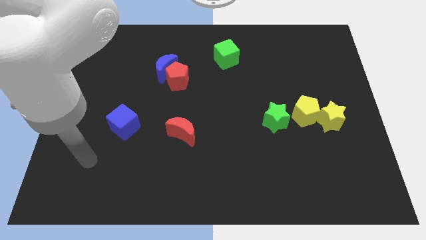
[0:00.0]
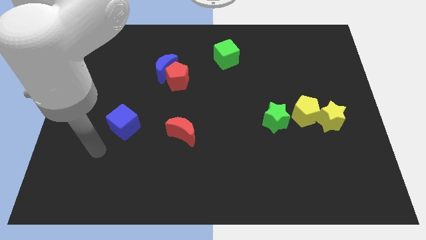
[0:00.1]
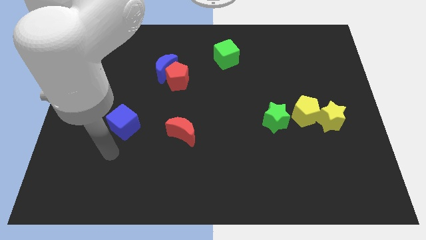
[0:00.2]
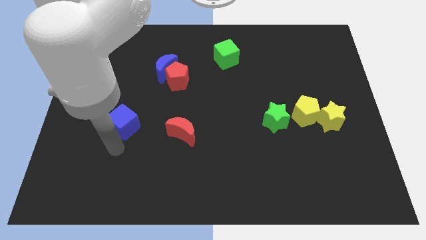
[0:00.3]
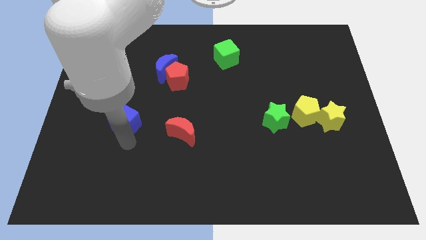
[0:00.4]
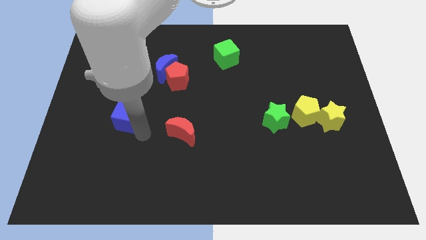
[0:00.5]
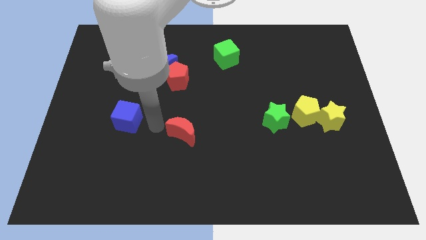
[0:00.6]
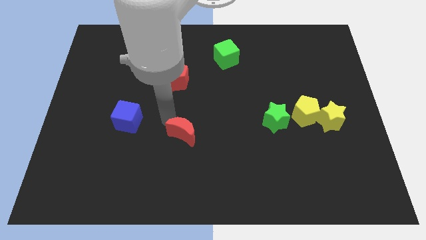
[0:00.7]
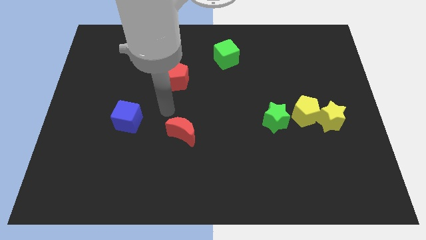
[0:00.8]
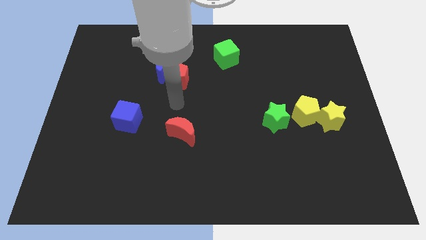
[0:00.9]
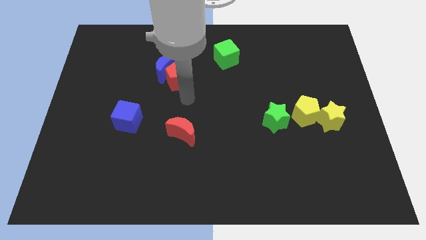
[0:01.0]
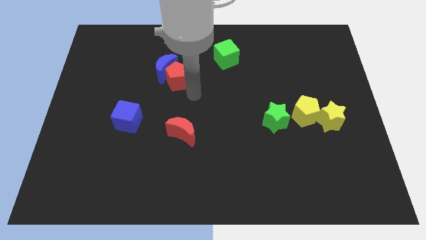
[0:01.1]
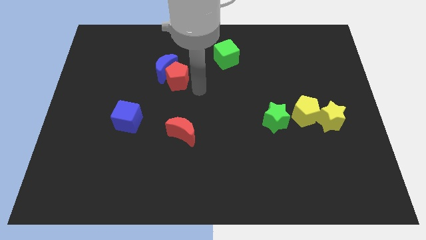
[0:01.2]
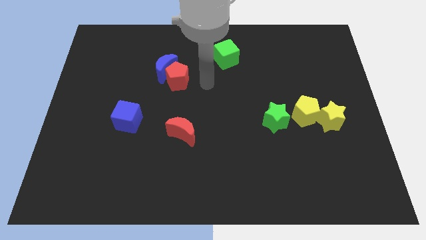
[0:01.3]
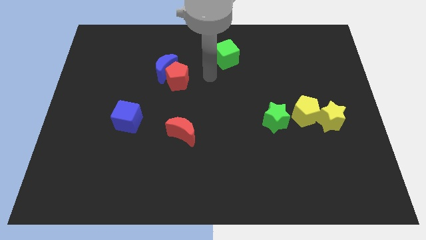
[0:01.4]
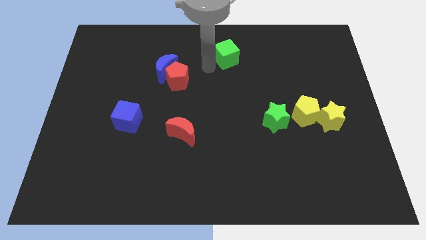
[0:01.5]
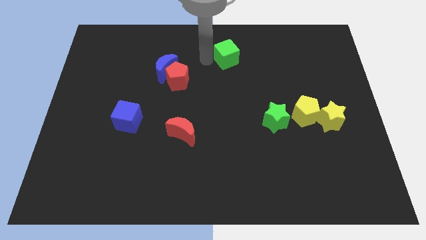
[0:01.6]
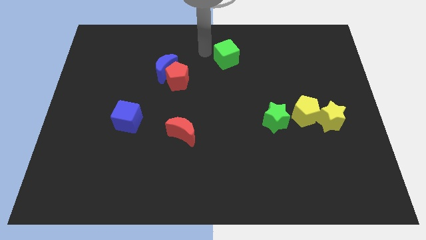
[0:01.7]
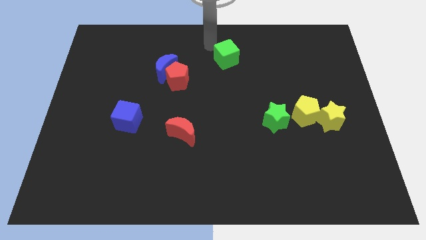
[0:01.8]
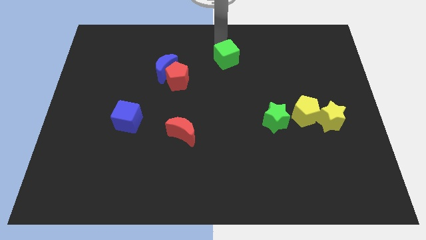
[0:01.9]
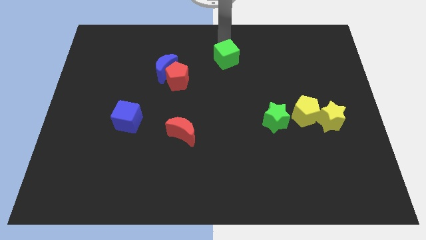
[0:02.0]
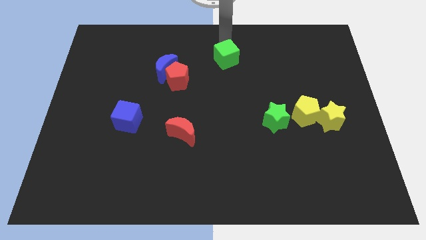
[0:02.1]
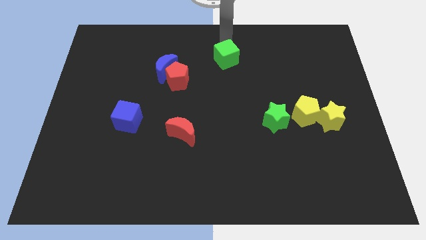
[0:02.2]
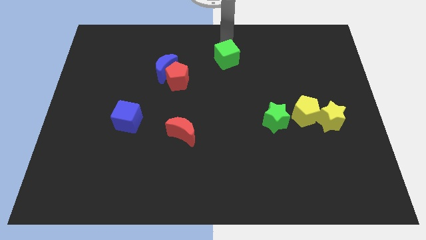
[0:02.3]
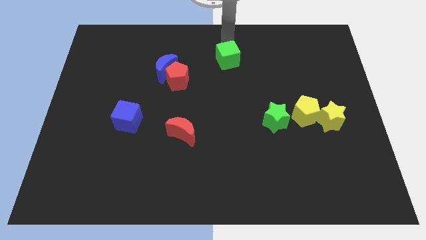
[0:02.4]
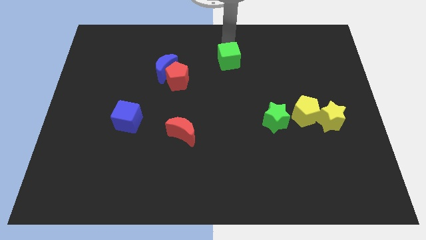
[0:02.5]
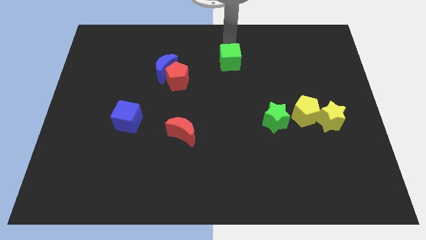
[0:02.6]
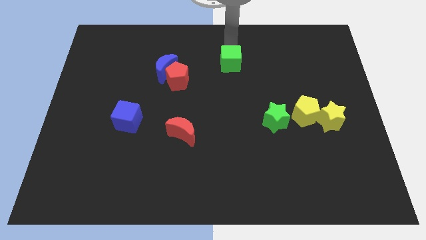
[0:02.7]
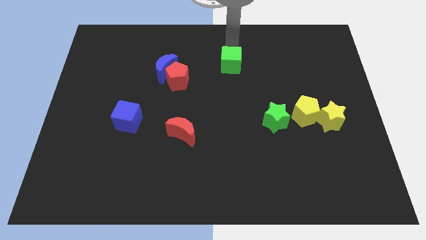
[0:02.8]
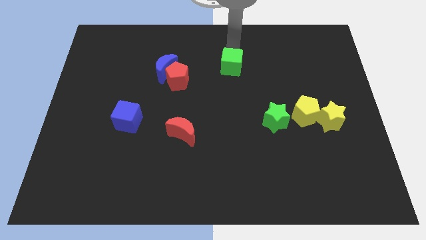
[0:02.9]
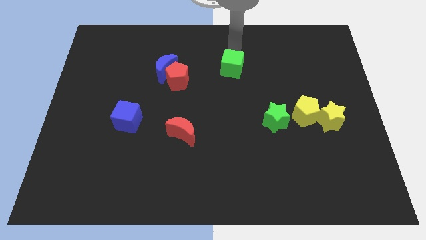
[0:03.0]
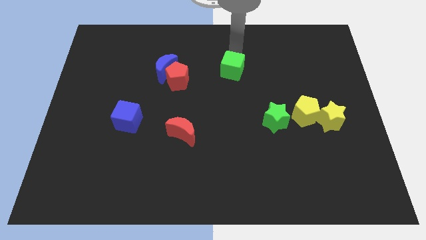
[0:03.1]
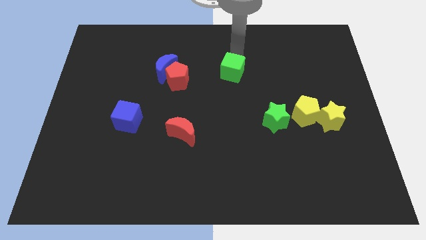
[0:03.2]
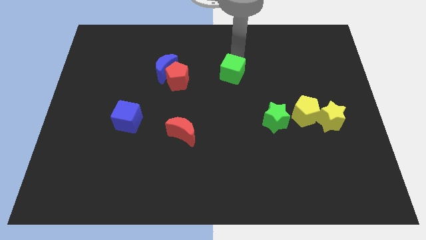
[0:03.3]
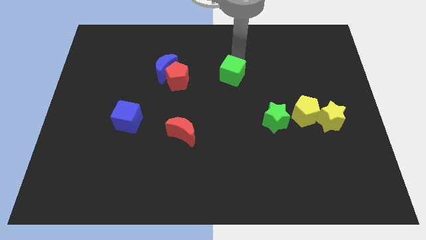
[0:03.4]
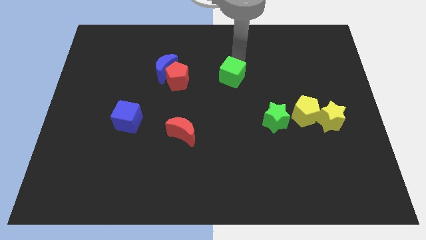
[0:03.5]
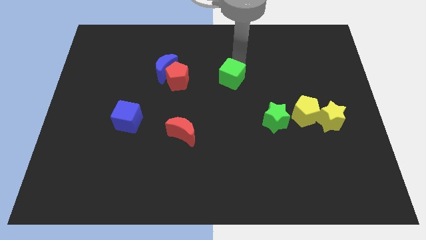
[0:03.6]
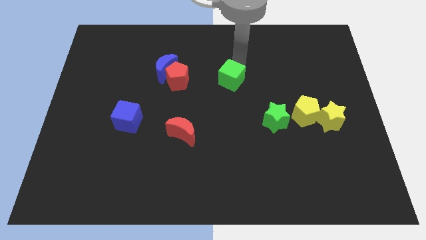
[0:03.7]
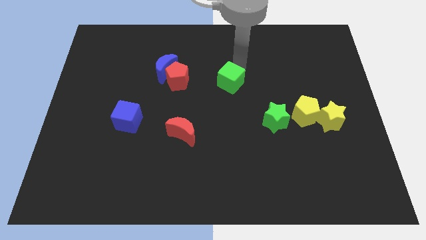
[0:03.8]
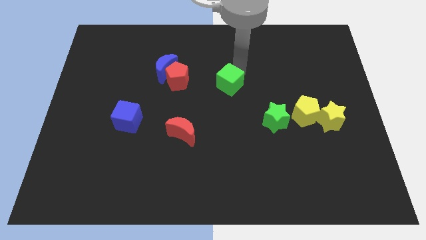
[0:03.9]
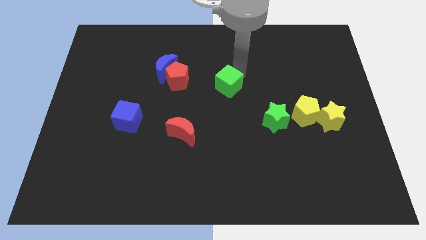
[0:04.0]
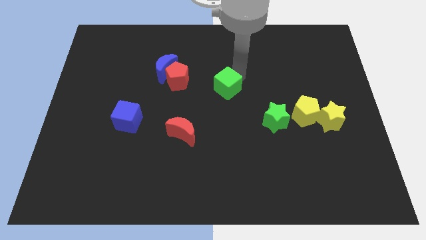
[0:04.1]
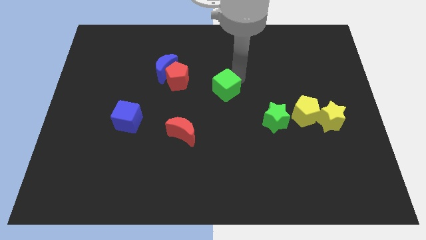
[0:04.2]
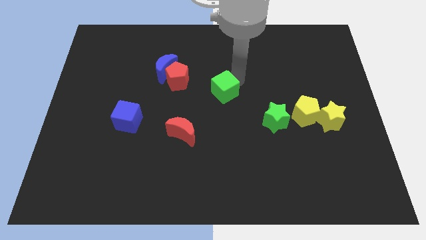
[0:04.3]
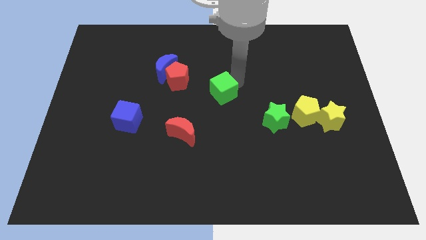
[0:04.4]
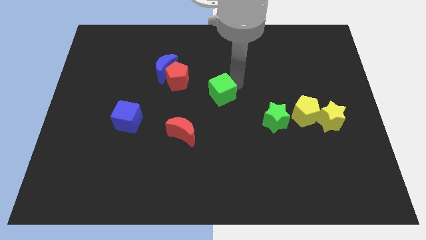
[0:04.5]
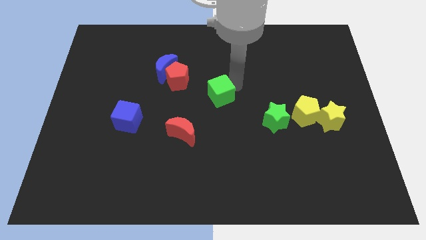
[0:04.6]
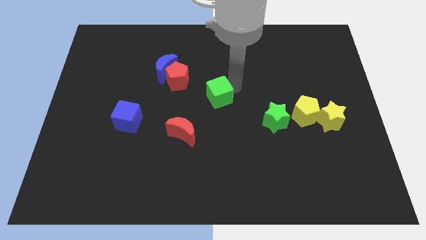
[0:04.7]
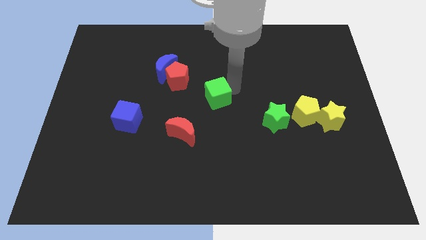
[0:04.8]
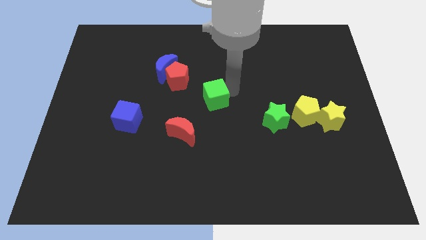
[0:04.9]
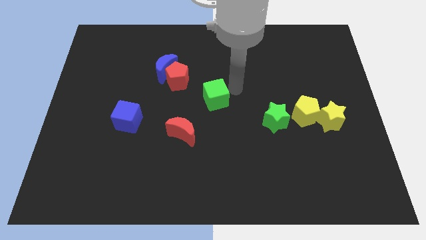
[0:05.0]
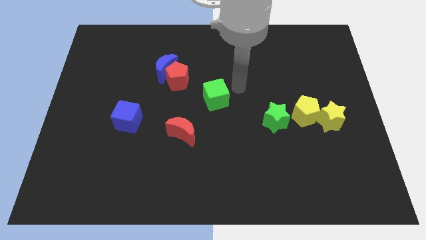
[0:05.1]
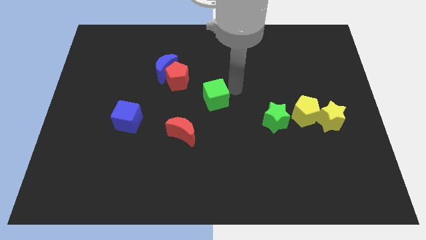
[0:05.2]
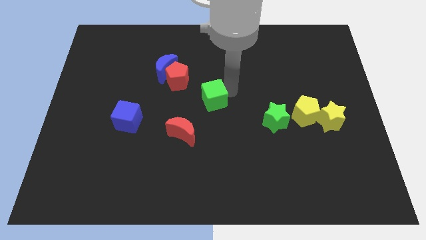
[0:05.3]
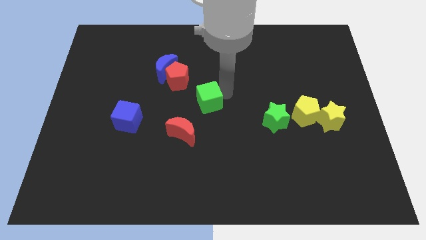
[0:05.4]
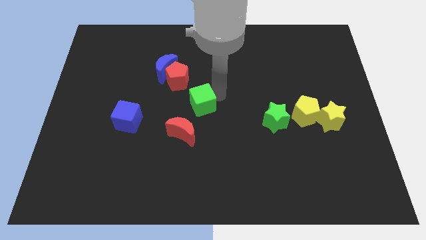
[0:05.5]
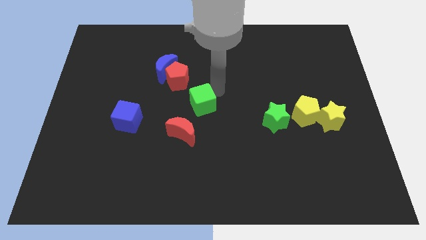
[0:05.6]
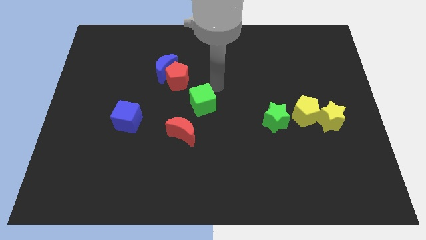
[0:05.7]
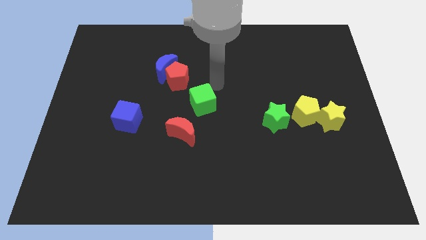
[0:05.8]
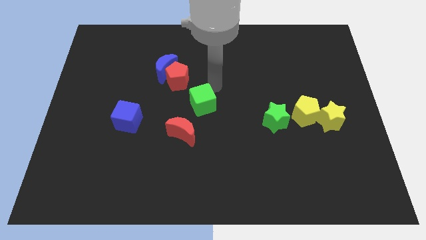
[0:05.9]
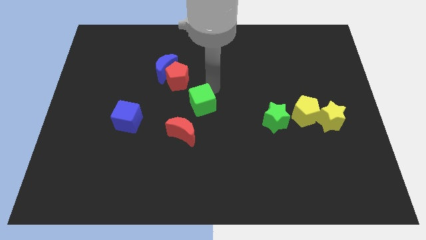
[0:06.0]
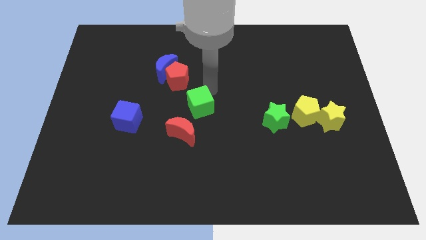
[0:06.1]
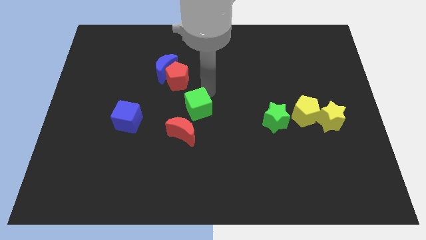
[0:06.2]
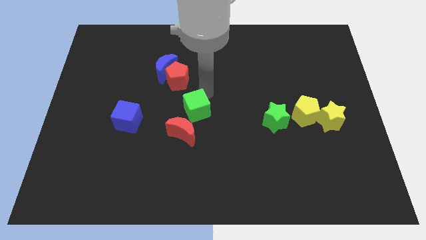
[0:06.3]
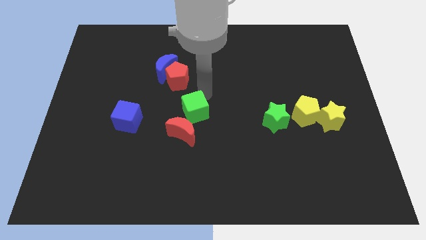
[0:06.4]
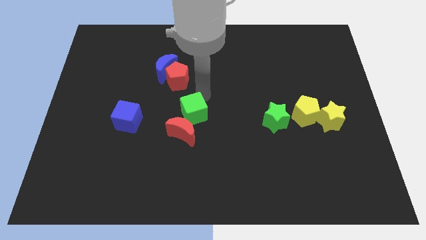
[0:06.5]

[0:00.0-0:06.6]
put the green cube to the red moon

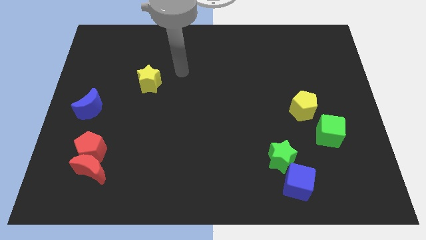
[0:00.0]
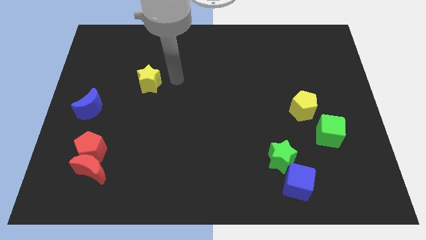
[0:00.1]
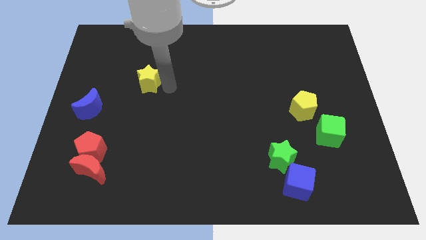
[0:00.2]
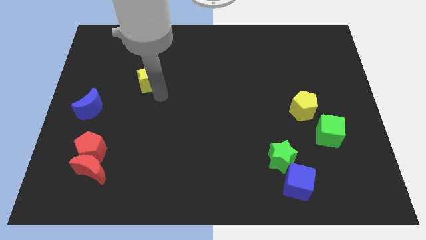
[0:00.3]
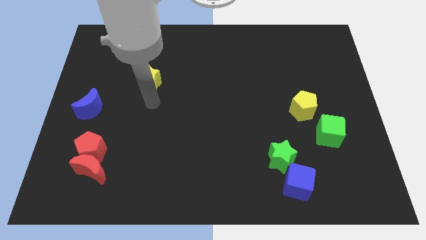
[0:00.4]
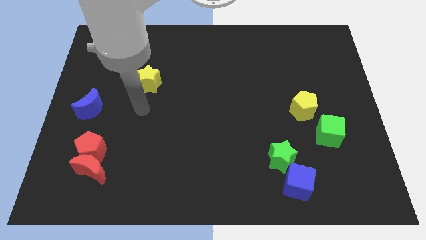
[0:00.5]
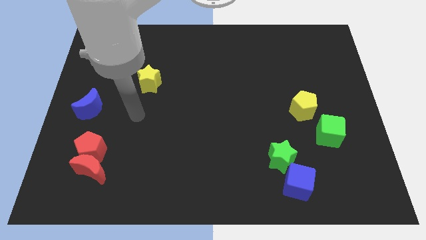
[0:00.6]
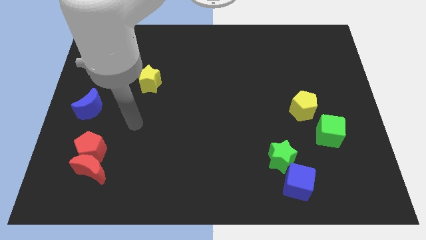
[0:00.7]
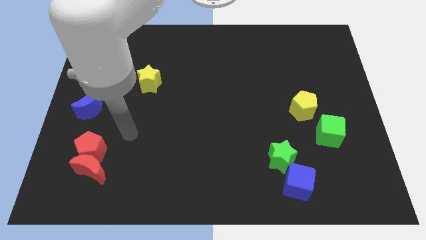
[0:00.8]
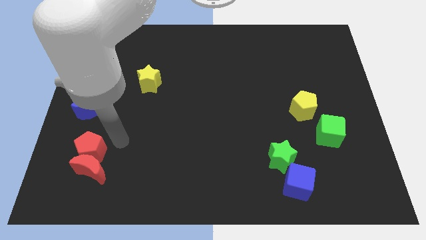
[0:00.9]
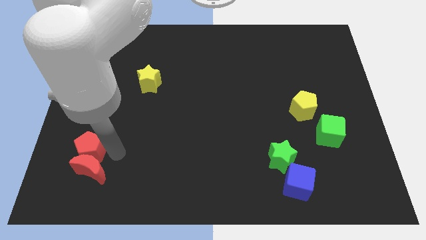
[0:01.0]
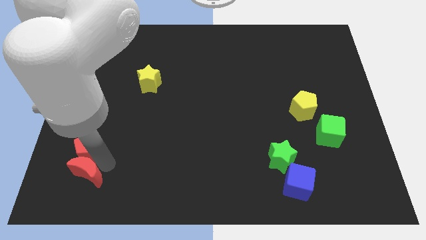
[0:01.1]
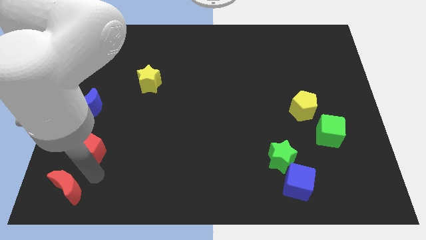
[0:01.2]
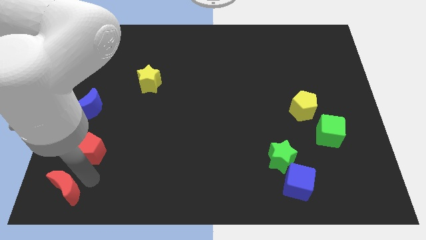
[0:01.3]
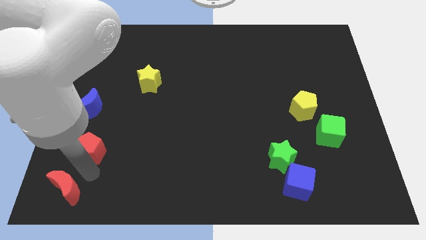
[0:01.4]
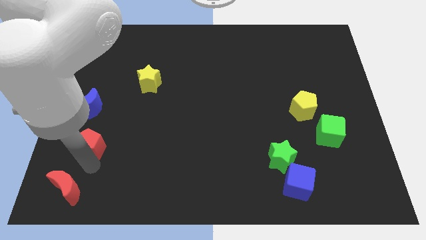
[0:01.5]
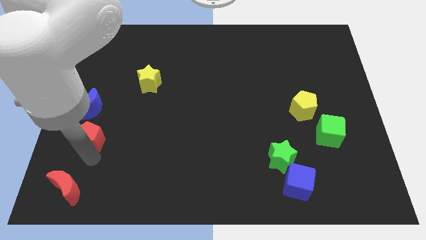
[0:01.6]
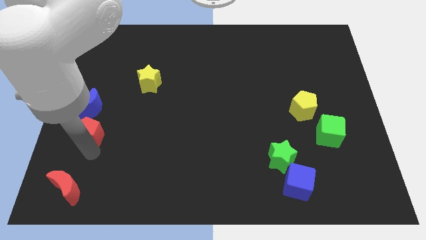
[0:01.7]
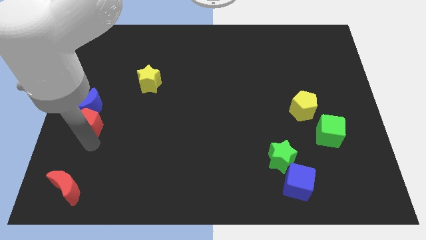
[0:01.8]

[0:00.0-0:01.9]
slide the red pentagon to the blue moon
